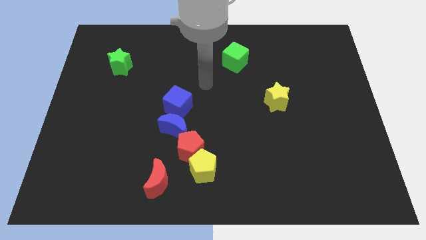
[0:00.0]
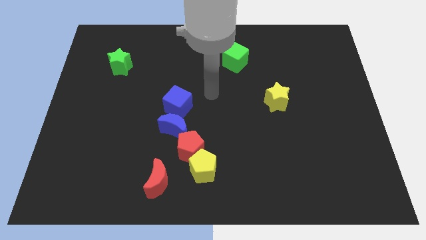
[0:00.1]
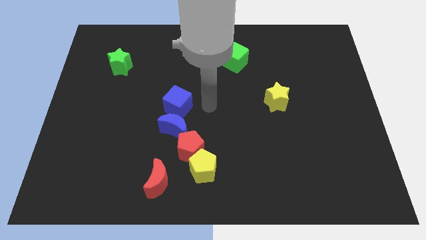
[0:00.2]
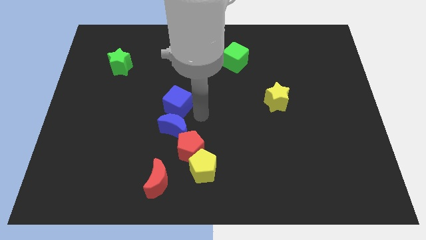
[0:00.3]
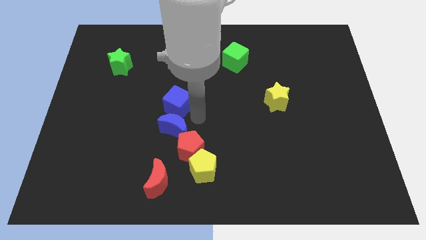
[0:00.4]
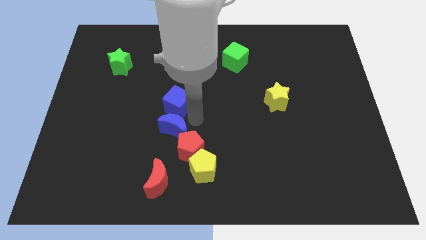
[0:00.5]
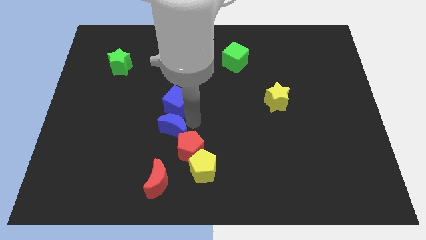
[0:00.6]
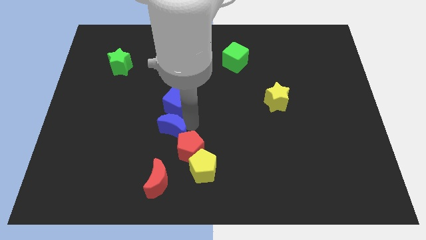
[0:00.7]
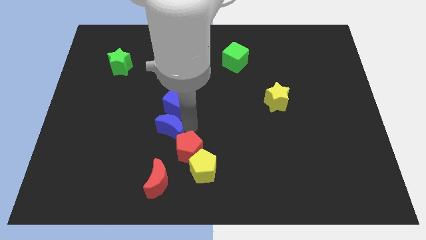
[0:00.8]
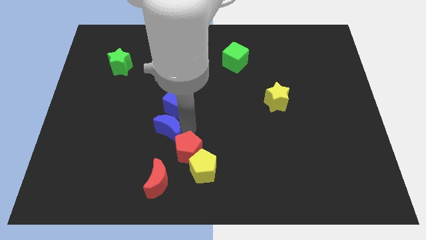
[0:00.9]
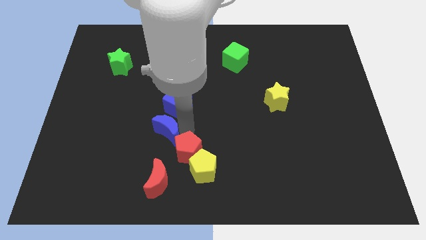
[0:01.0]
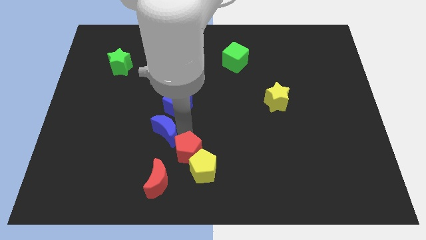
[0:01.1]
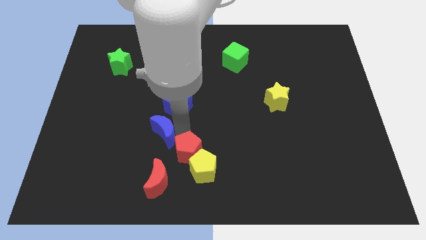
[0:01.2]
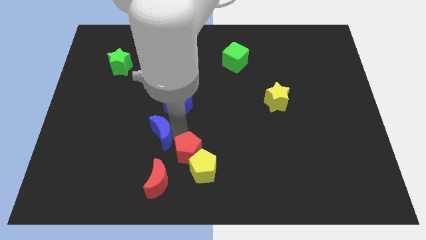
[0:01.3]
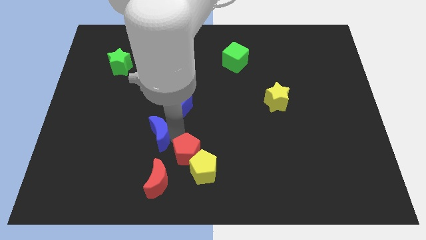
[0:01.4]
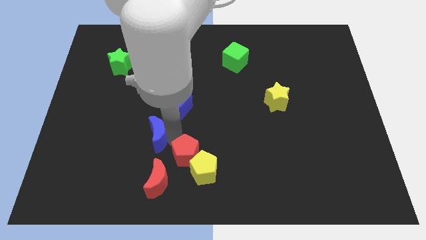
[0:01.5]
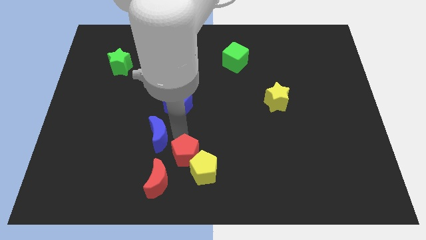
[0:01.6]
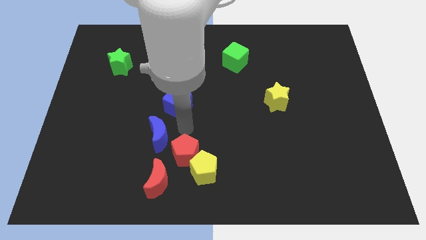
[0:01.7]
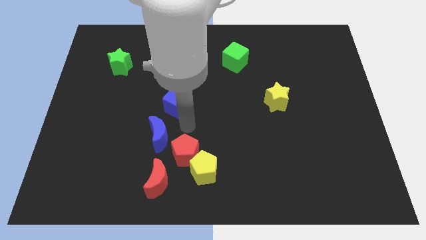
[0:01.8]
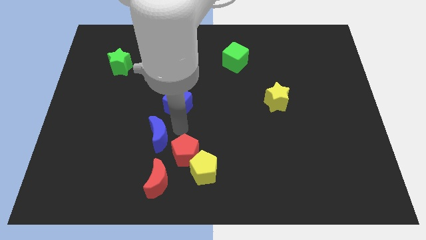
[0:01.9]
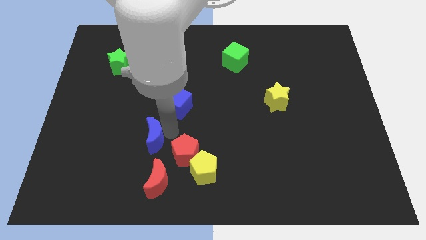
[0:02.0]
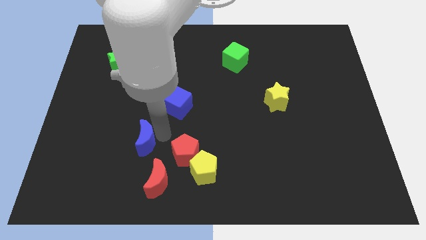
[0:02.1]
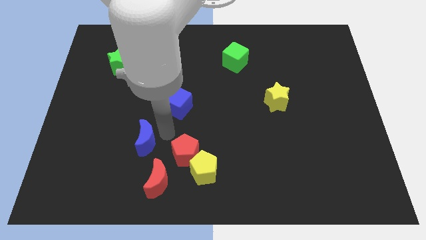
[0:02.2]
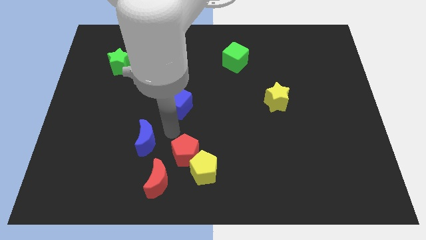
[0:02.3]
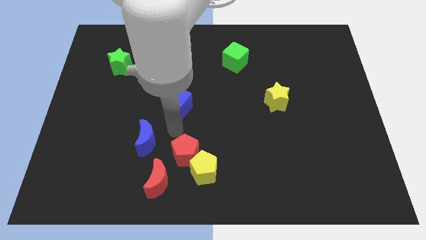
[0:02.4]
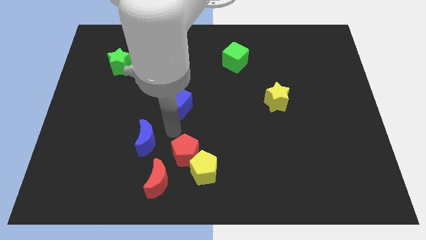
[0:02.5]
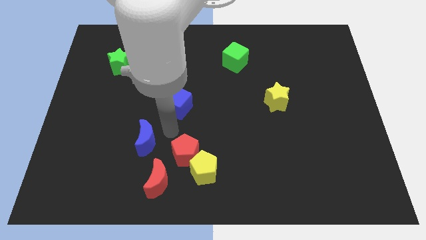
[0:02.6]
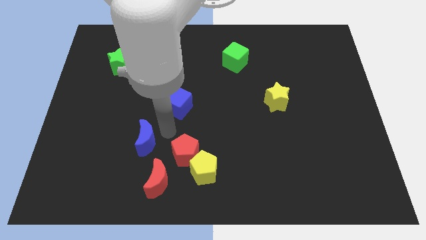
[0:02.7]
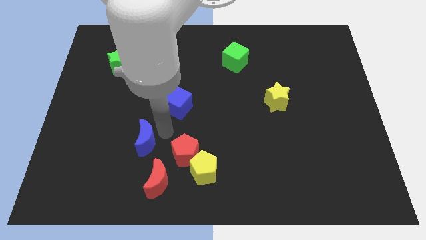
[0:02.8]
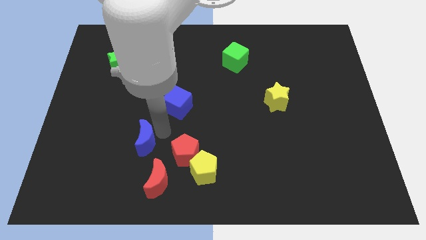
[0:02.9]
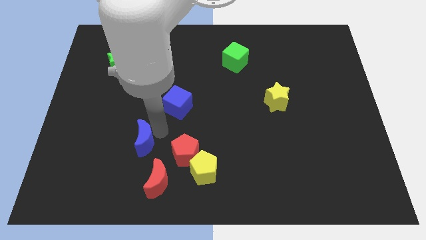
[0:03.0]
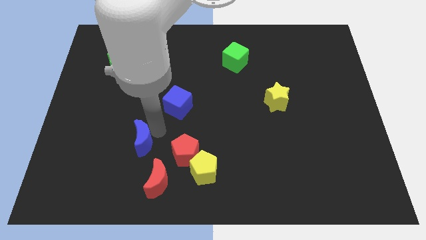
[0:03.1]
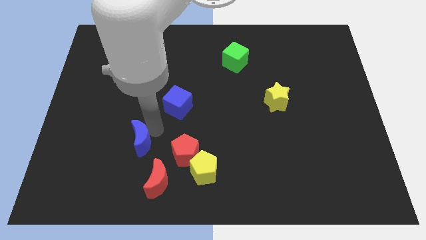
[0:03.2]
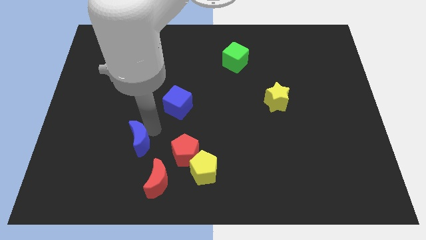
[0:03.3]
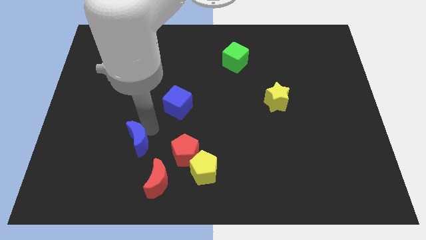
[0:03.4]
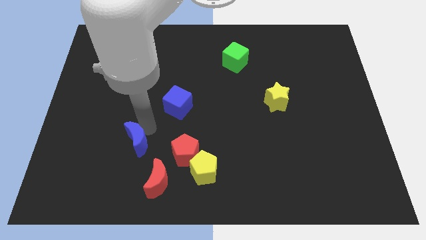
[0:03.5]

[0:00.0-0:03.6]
separate the blue moon from the red pentagon and blue cube

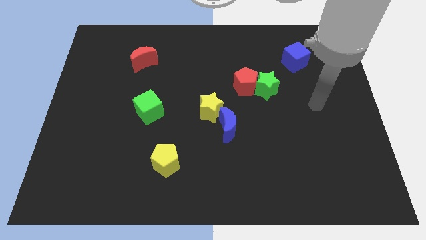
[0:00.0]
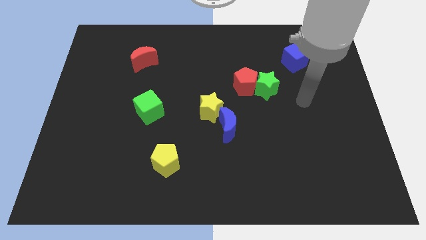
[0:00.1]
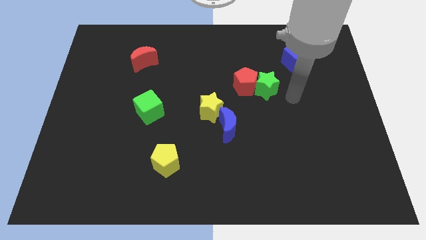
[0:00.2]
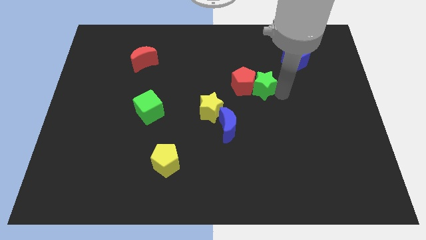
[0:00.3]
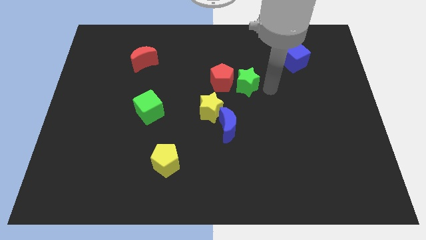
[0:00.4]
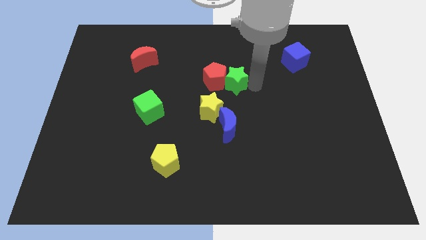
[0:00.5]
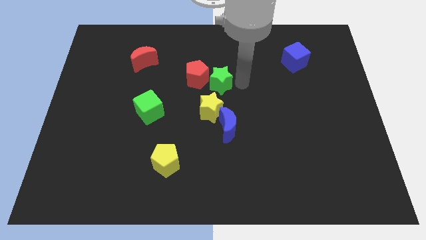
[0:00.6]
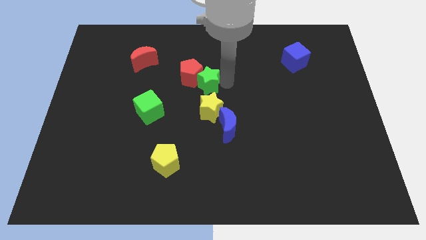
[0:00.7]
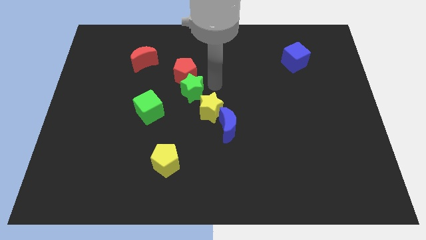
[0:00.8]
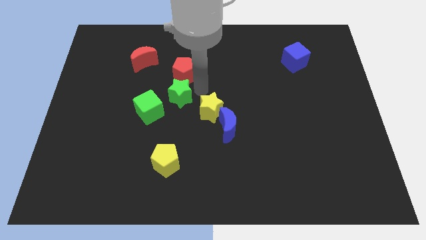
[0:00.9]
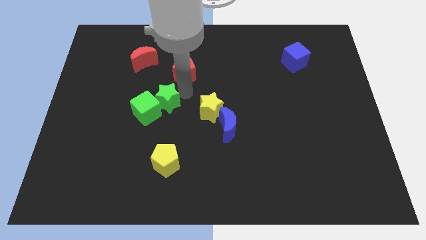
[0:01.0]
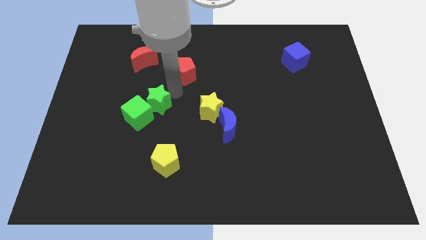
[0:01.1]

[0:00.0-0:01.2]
pull the red pentagon apart from the green star

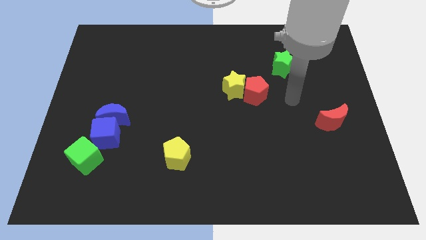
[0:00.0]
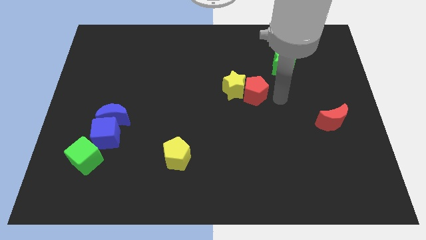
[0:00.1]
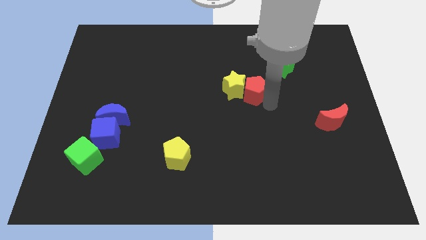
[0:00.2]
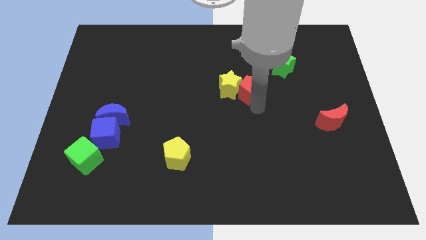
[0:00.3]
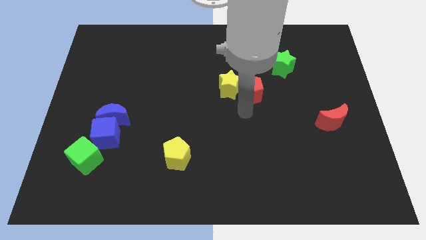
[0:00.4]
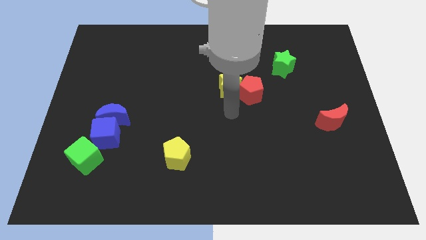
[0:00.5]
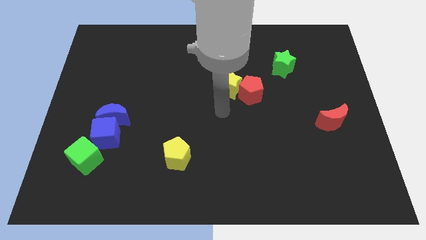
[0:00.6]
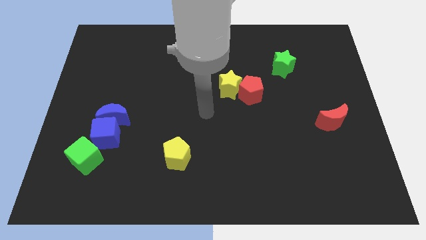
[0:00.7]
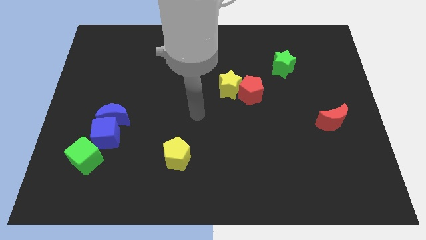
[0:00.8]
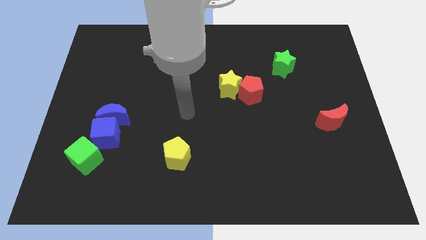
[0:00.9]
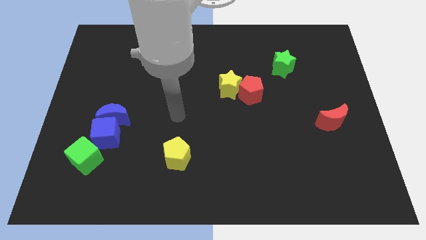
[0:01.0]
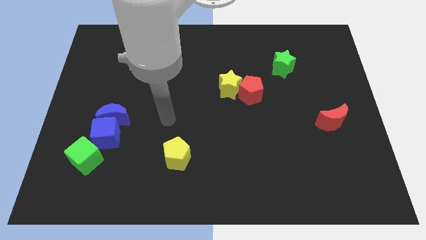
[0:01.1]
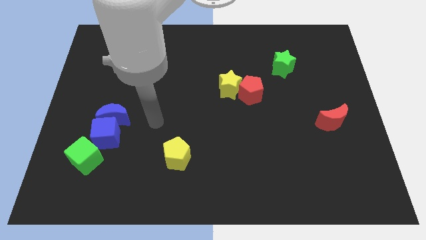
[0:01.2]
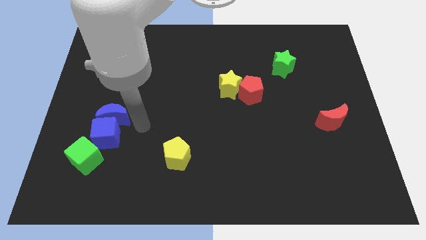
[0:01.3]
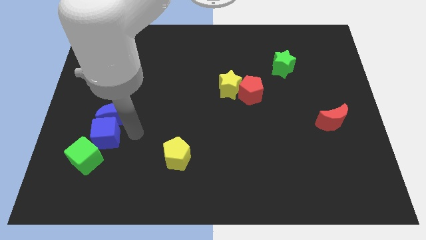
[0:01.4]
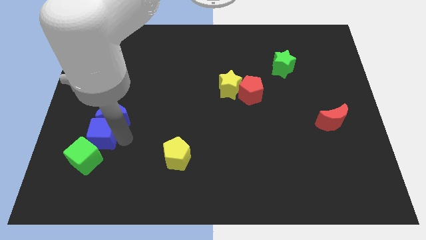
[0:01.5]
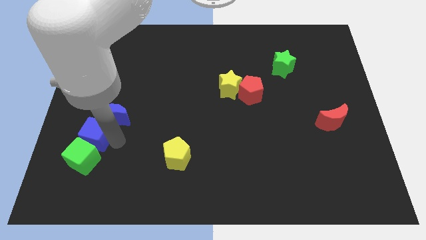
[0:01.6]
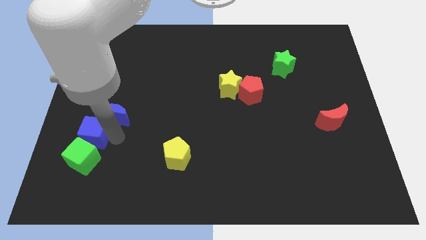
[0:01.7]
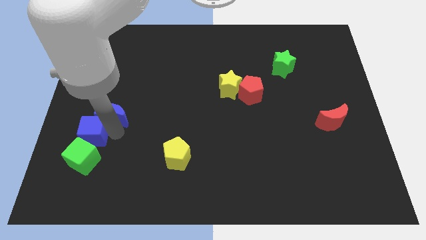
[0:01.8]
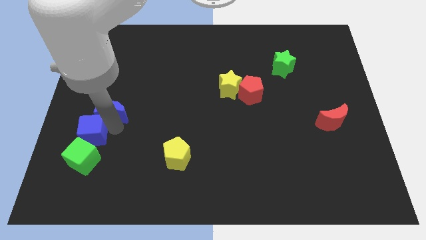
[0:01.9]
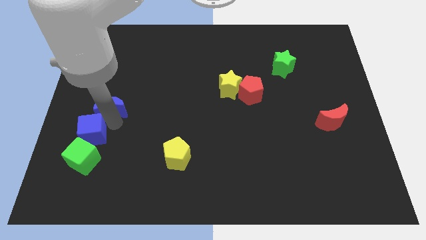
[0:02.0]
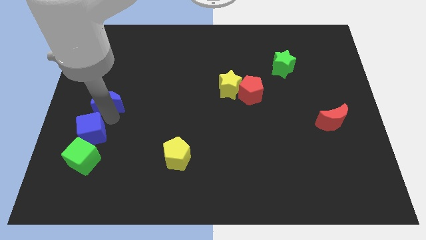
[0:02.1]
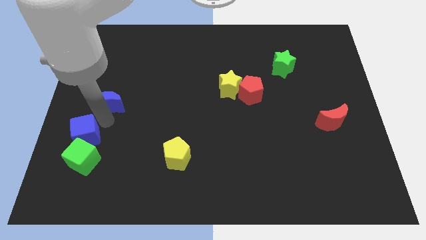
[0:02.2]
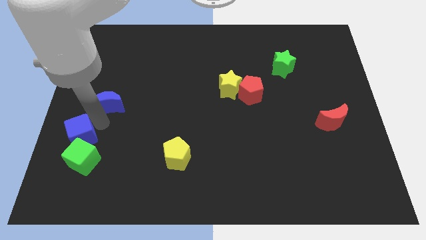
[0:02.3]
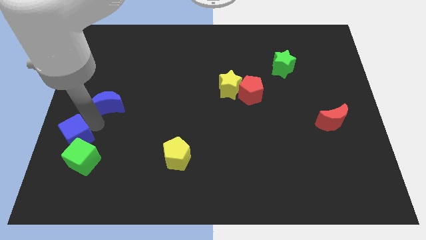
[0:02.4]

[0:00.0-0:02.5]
move the blue moon away from the blue cube

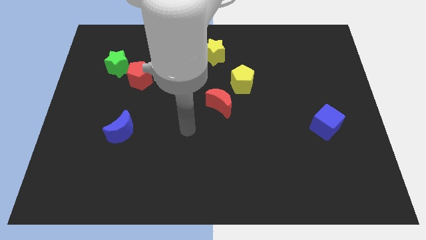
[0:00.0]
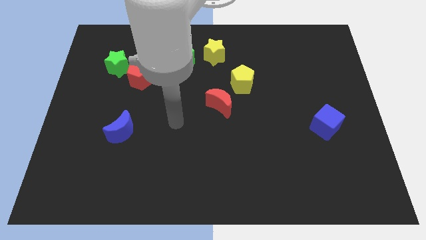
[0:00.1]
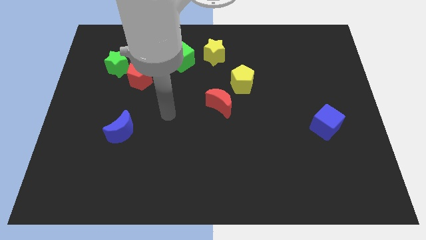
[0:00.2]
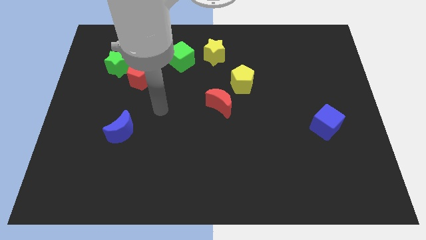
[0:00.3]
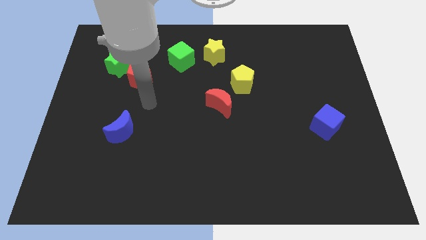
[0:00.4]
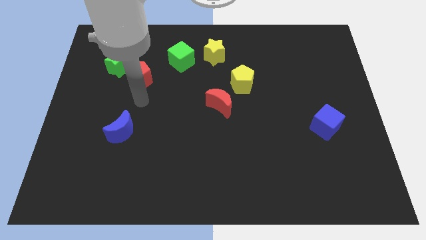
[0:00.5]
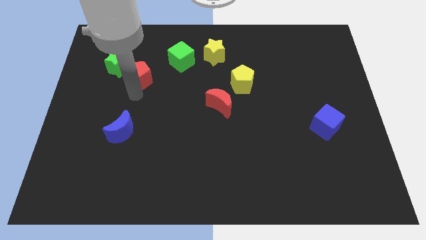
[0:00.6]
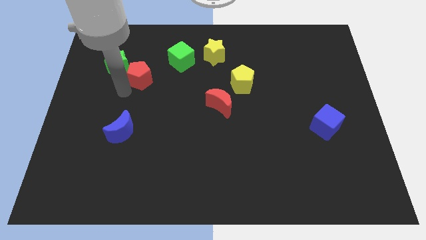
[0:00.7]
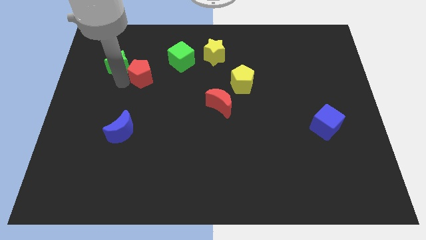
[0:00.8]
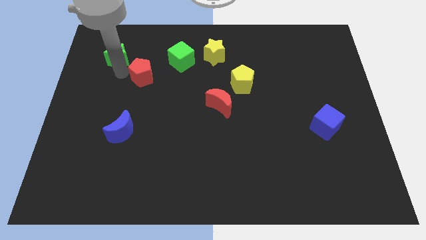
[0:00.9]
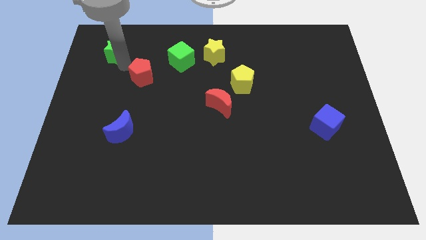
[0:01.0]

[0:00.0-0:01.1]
separate the red pentagon from the green star

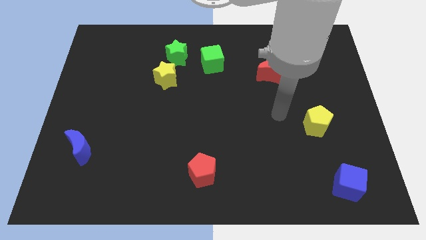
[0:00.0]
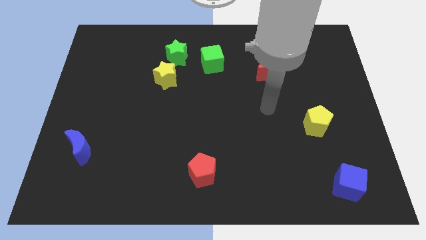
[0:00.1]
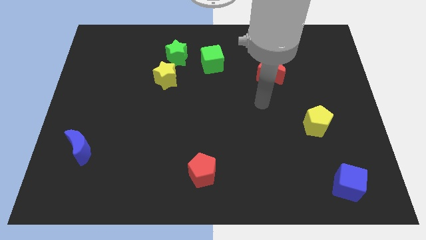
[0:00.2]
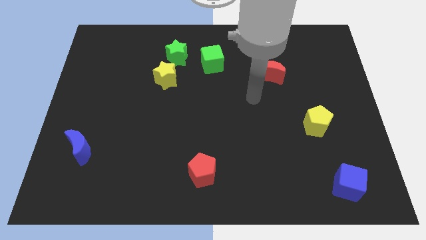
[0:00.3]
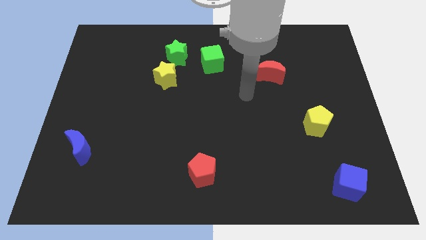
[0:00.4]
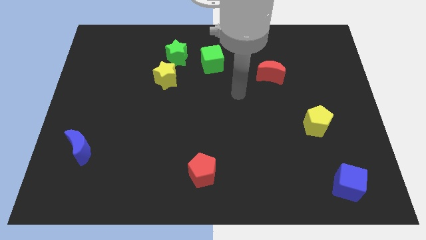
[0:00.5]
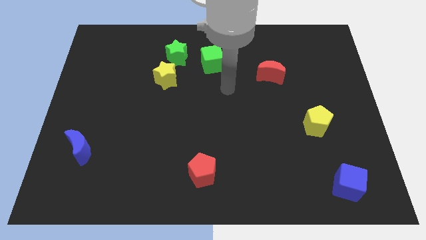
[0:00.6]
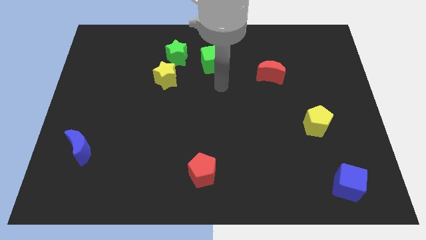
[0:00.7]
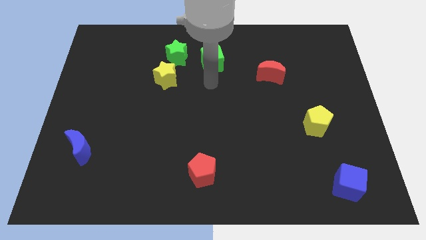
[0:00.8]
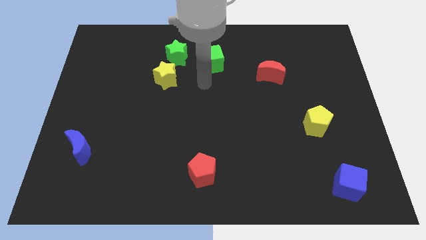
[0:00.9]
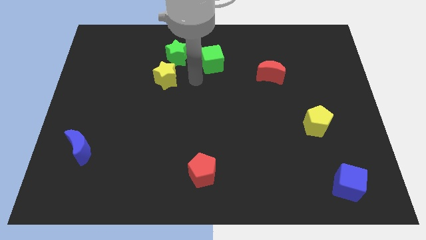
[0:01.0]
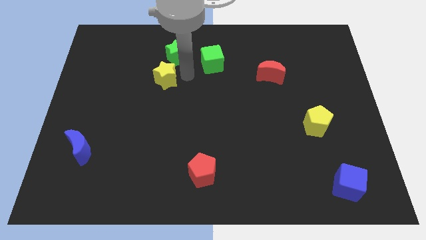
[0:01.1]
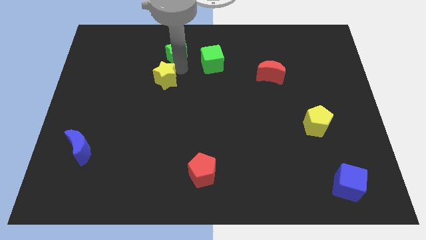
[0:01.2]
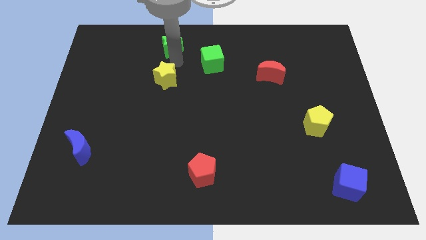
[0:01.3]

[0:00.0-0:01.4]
separate the yellow star from the green star
